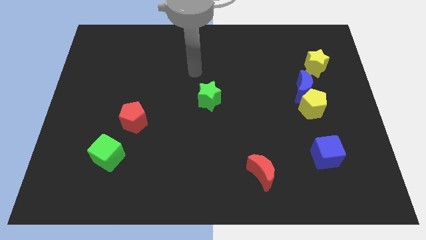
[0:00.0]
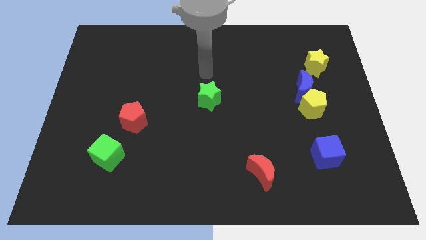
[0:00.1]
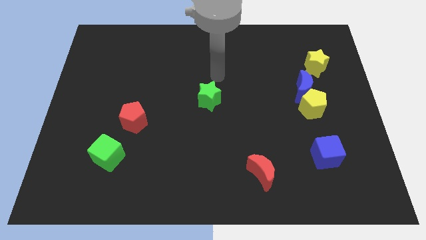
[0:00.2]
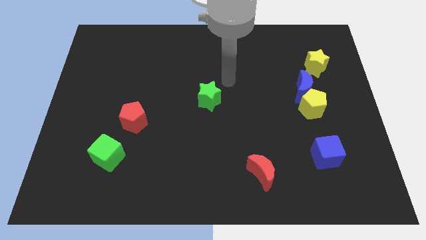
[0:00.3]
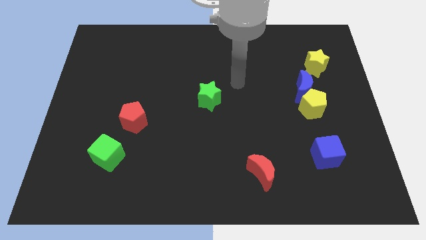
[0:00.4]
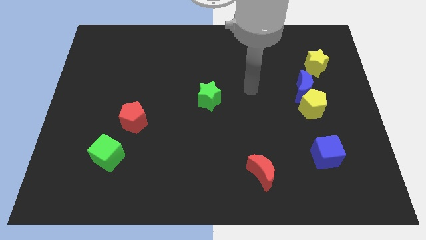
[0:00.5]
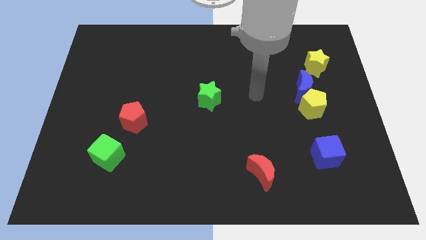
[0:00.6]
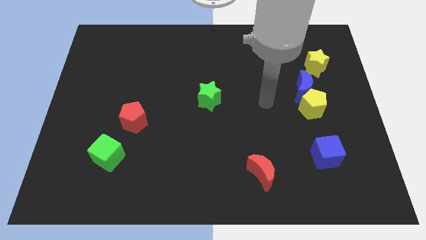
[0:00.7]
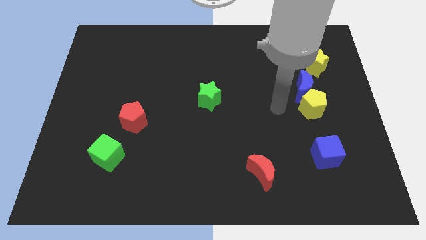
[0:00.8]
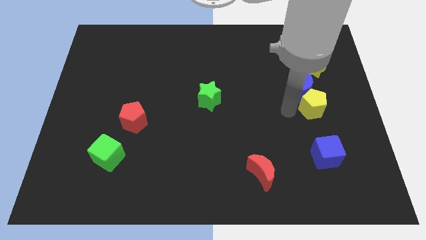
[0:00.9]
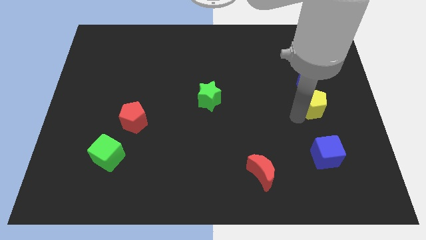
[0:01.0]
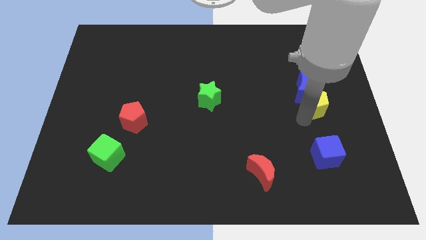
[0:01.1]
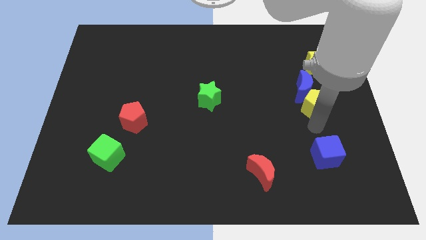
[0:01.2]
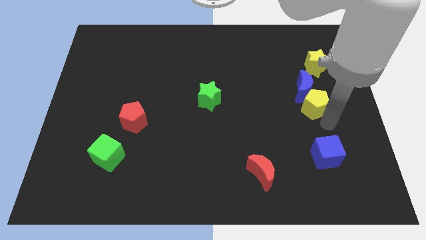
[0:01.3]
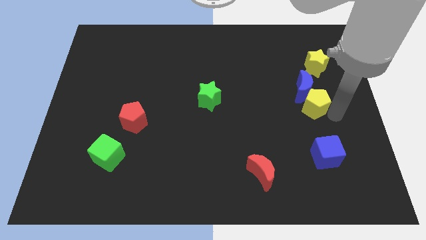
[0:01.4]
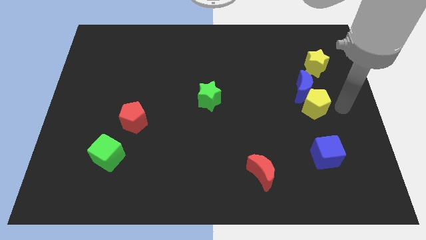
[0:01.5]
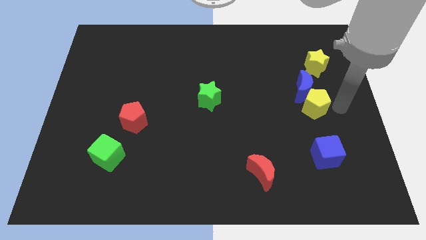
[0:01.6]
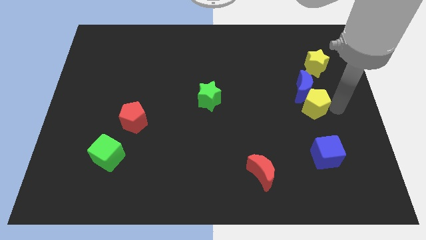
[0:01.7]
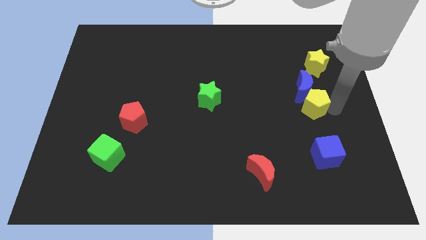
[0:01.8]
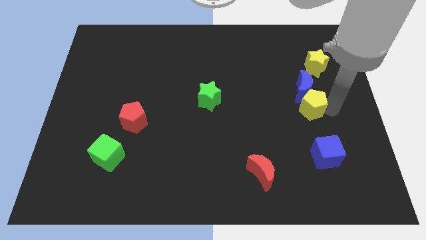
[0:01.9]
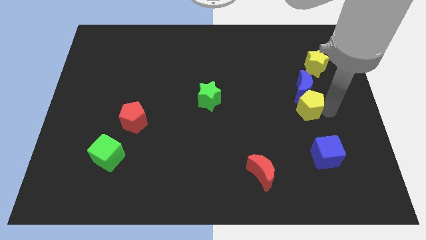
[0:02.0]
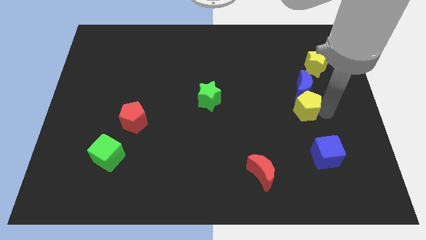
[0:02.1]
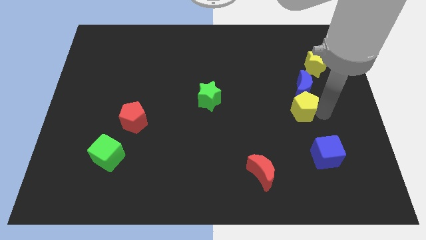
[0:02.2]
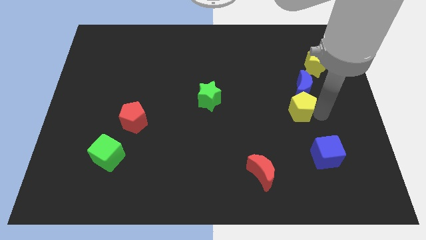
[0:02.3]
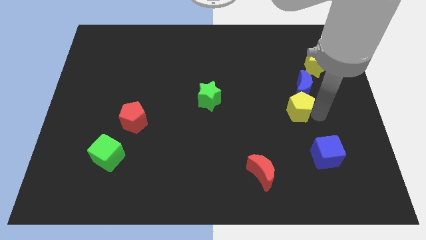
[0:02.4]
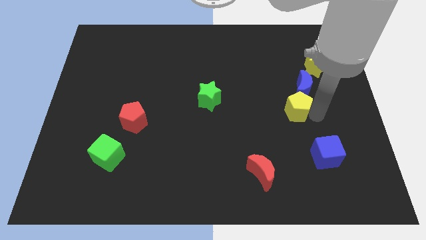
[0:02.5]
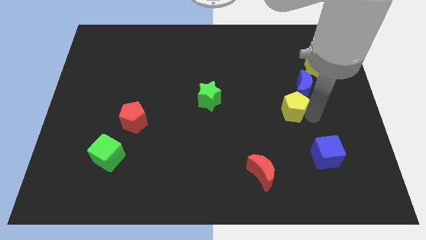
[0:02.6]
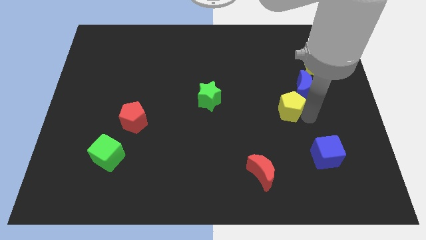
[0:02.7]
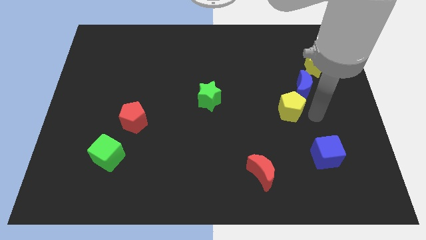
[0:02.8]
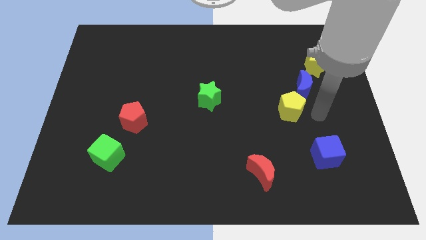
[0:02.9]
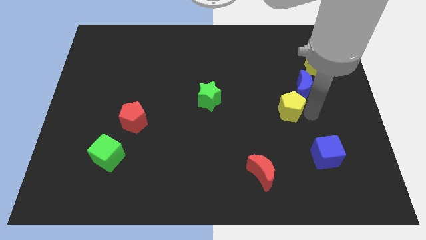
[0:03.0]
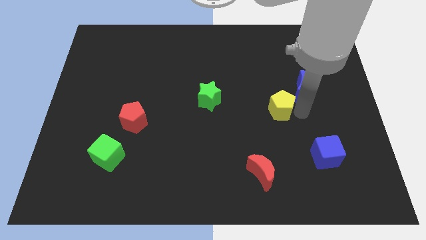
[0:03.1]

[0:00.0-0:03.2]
slide the yellow pentagon slightly left

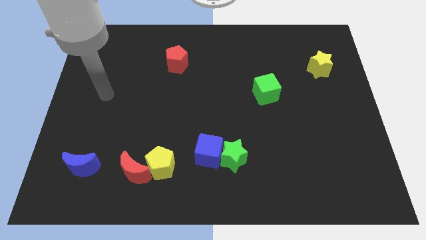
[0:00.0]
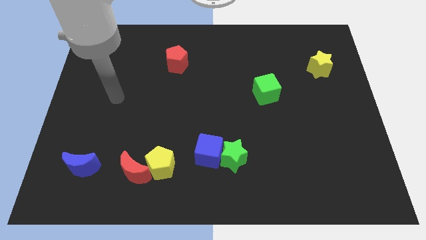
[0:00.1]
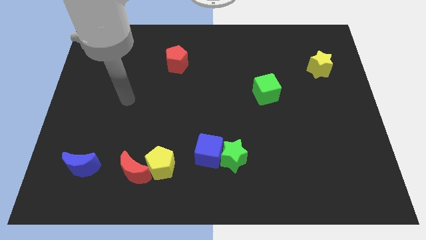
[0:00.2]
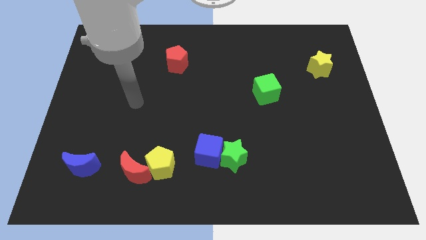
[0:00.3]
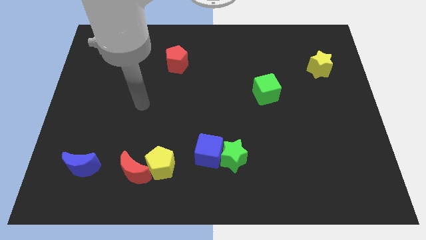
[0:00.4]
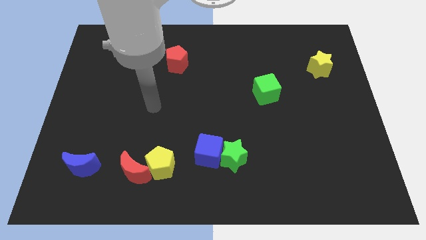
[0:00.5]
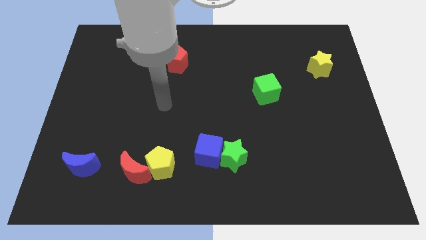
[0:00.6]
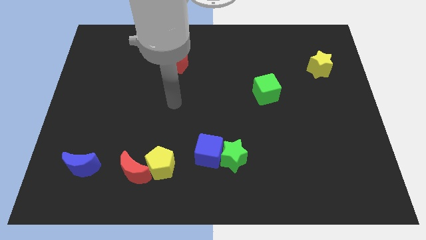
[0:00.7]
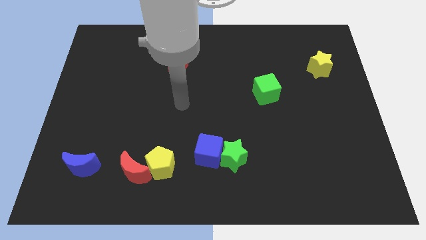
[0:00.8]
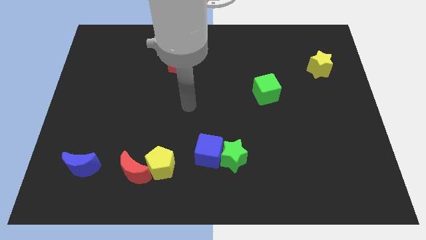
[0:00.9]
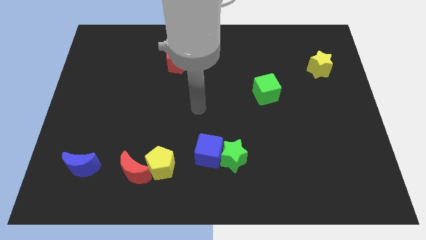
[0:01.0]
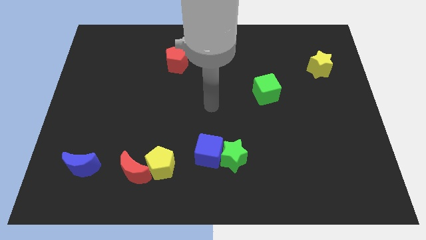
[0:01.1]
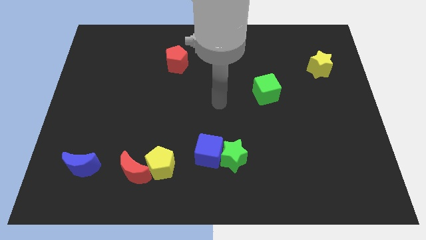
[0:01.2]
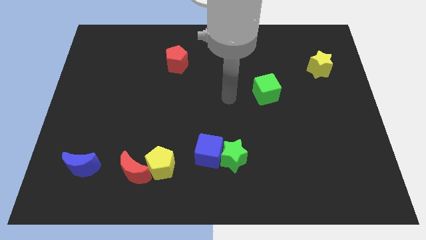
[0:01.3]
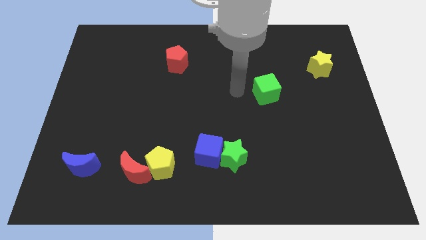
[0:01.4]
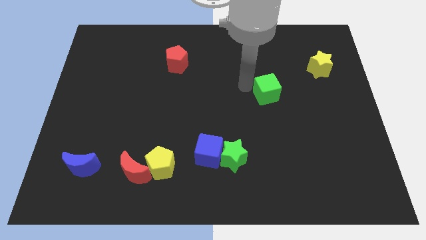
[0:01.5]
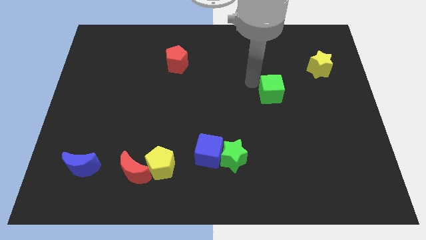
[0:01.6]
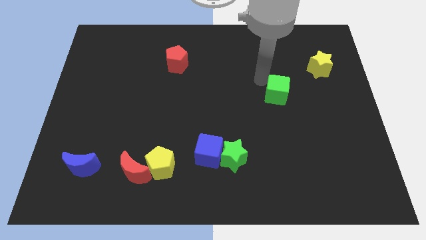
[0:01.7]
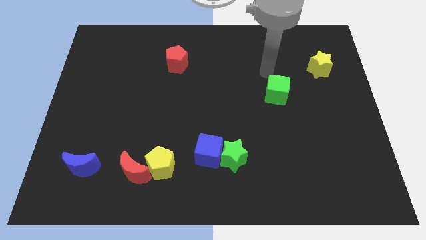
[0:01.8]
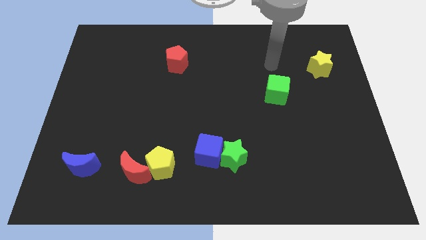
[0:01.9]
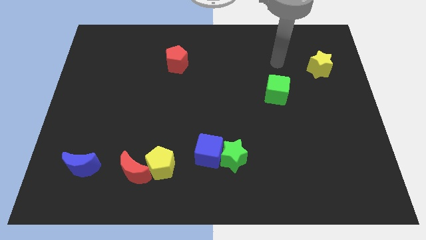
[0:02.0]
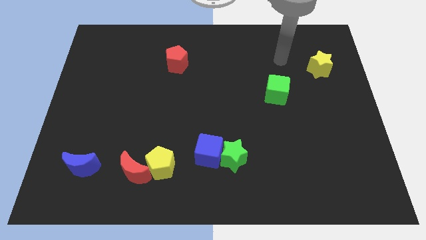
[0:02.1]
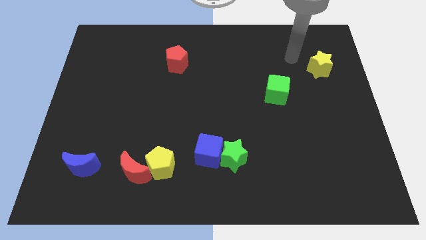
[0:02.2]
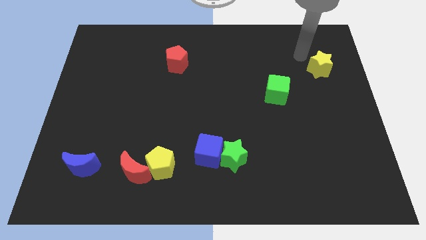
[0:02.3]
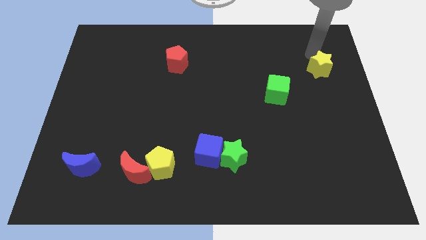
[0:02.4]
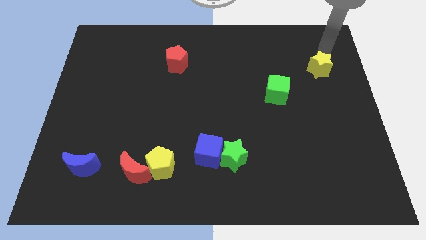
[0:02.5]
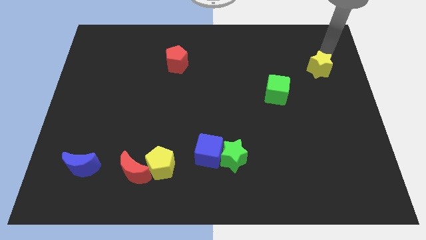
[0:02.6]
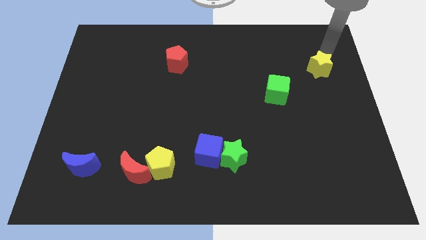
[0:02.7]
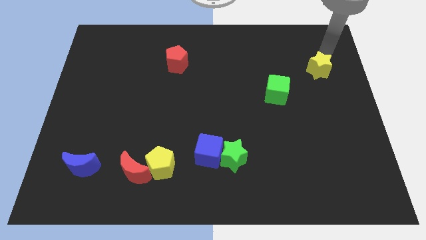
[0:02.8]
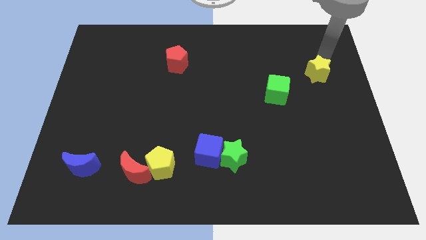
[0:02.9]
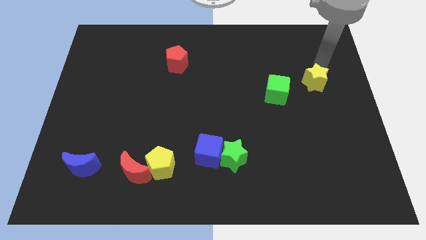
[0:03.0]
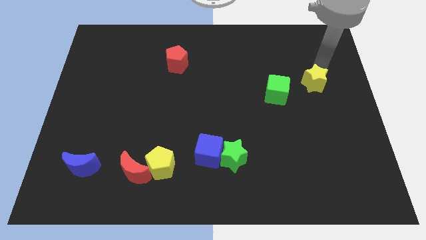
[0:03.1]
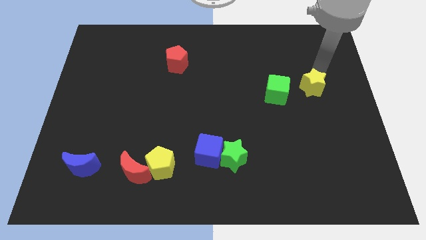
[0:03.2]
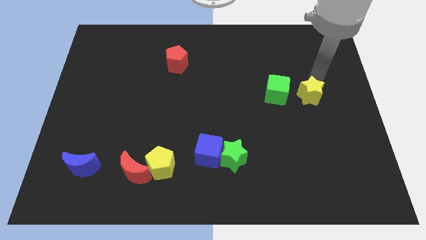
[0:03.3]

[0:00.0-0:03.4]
slightly push the yellow star diagonally down and left

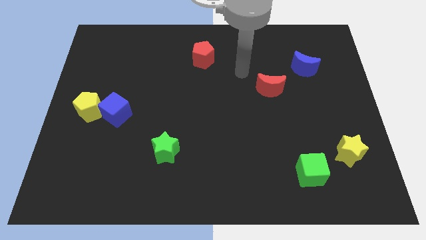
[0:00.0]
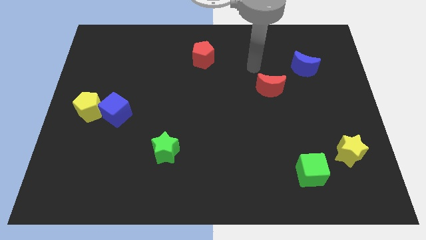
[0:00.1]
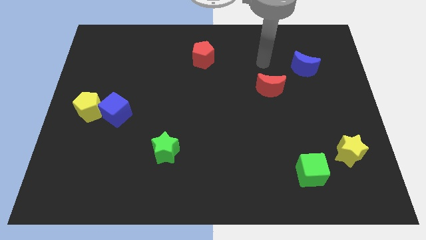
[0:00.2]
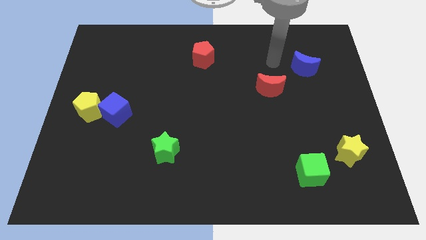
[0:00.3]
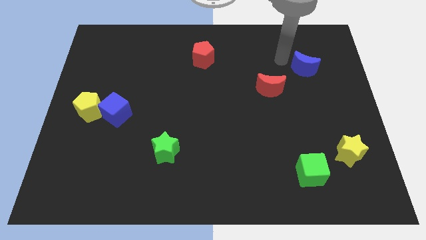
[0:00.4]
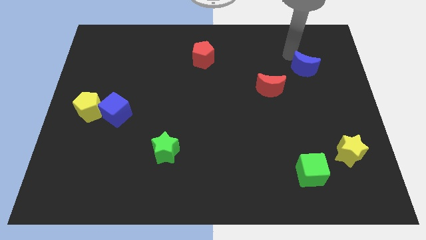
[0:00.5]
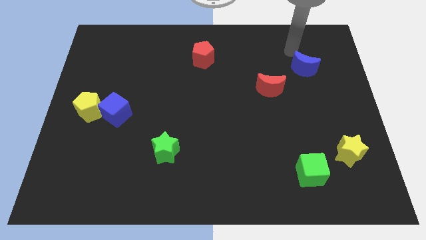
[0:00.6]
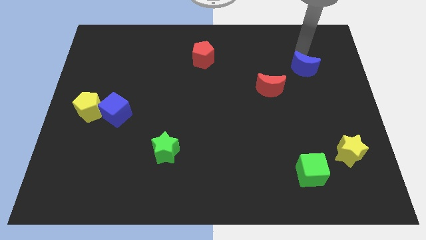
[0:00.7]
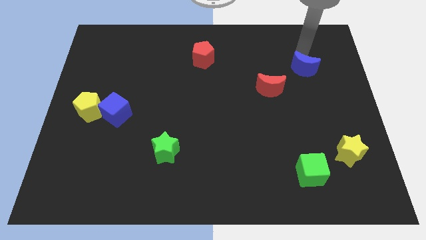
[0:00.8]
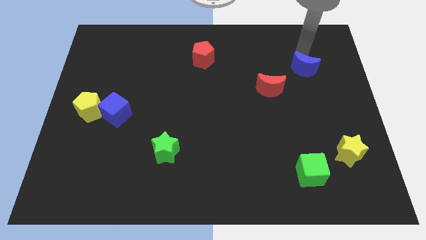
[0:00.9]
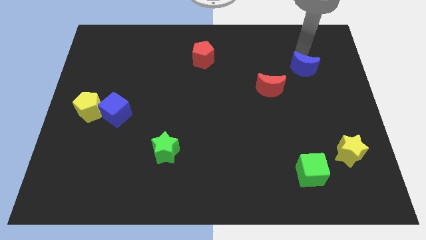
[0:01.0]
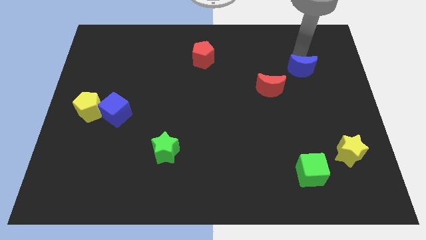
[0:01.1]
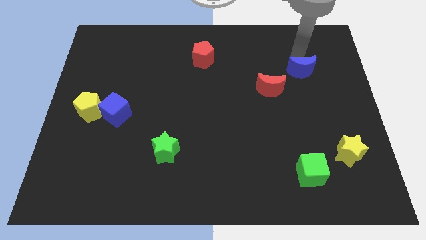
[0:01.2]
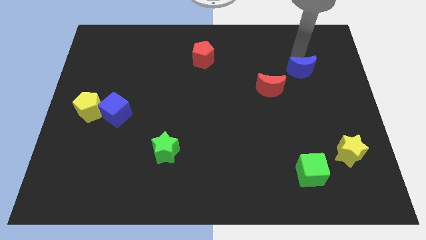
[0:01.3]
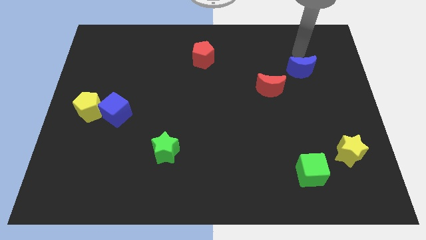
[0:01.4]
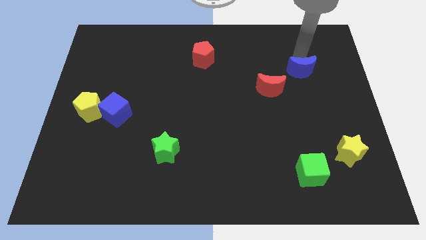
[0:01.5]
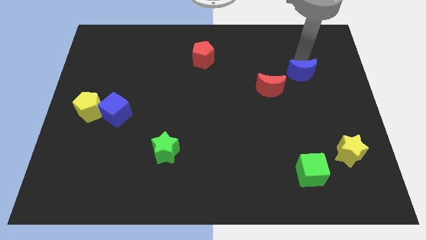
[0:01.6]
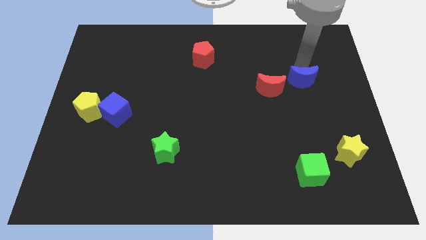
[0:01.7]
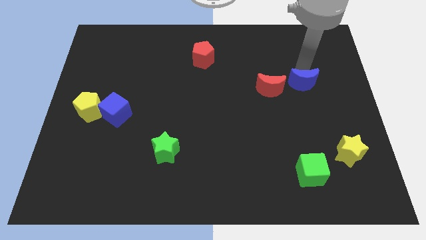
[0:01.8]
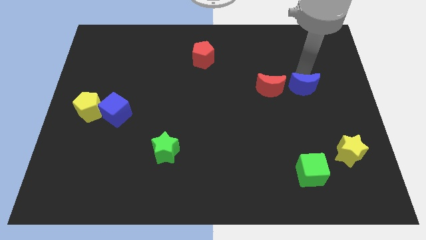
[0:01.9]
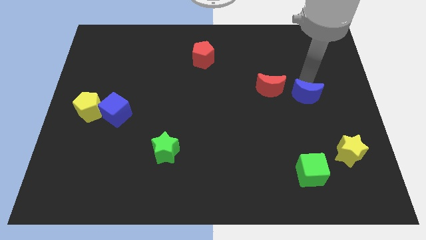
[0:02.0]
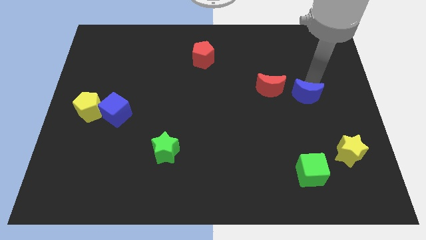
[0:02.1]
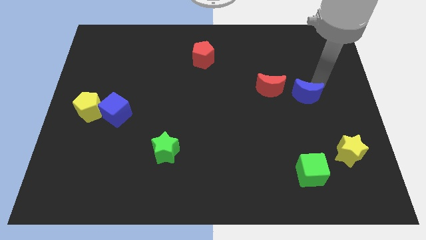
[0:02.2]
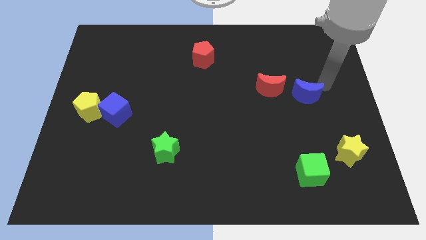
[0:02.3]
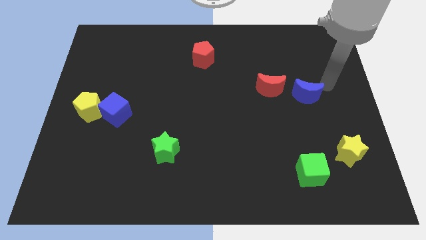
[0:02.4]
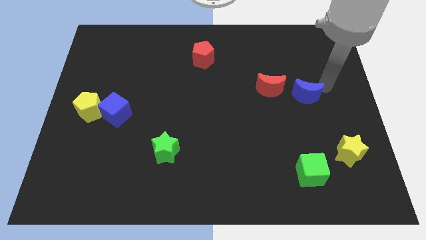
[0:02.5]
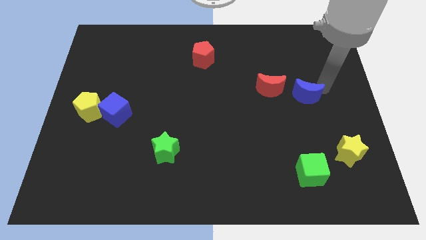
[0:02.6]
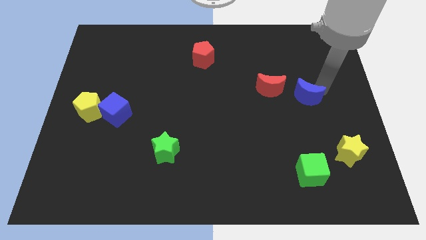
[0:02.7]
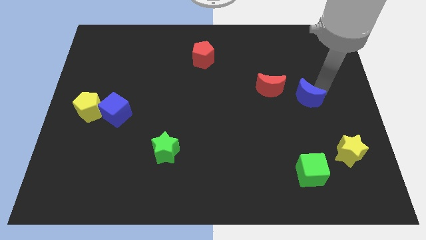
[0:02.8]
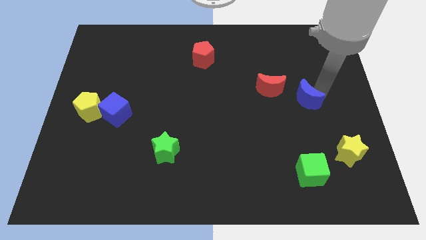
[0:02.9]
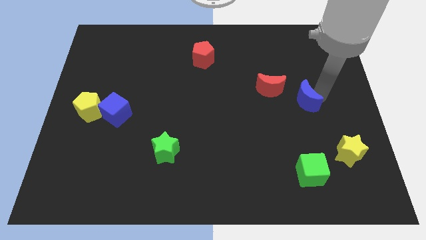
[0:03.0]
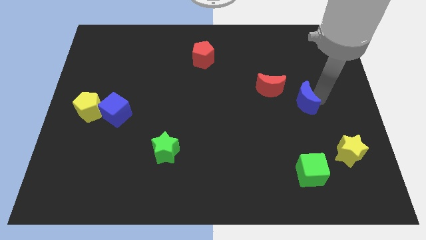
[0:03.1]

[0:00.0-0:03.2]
push the blue moon slightly downwards and then left
